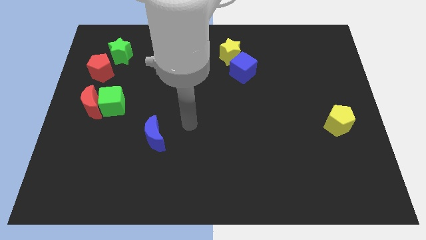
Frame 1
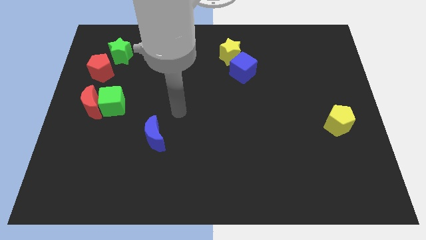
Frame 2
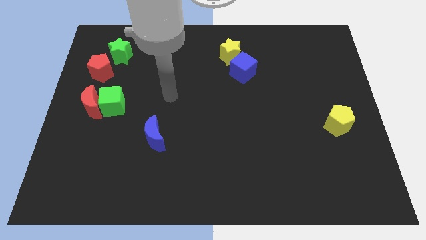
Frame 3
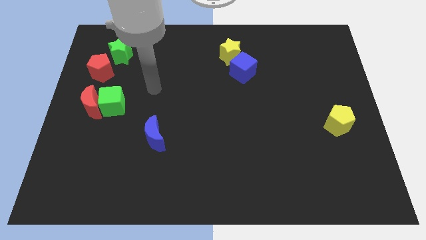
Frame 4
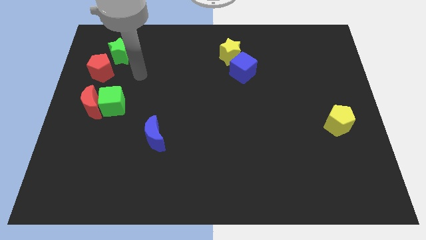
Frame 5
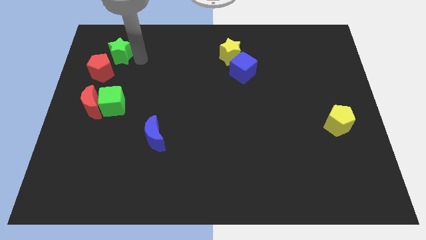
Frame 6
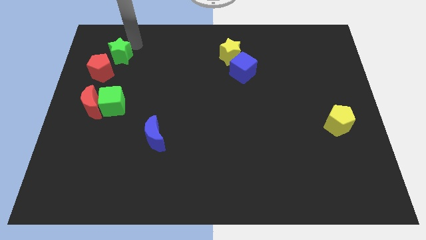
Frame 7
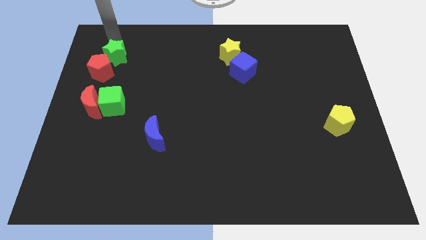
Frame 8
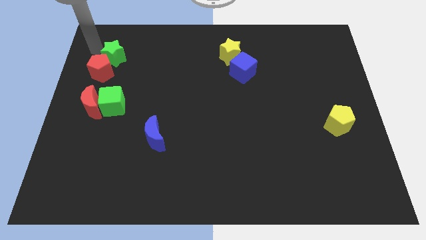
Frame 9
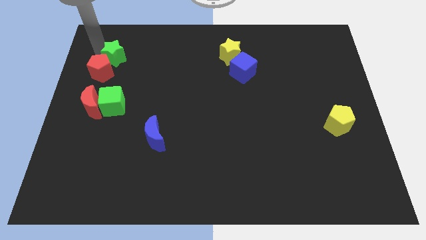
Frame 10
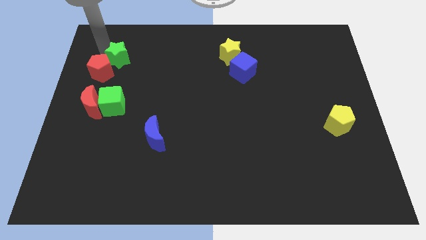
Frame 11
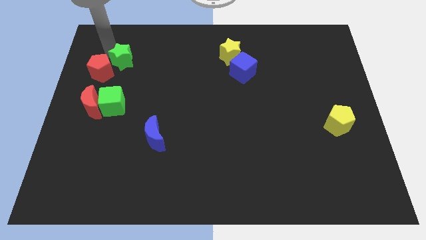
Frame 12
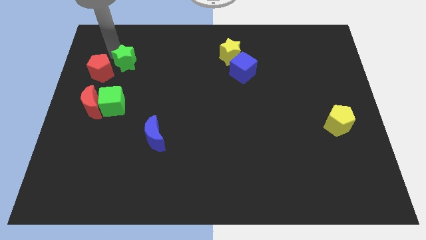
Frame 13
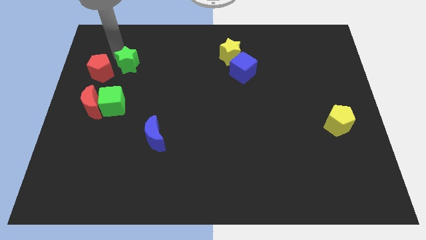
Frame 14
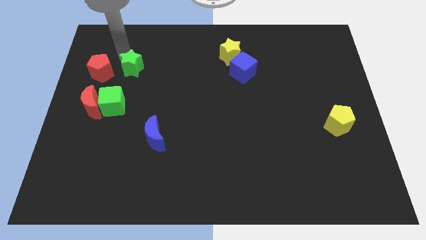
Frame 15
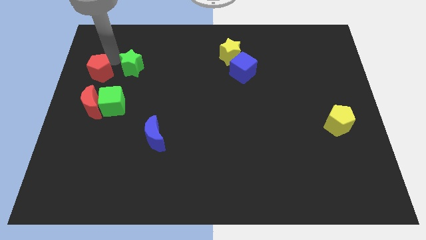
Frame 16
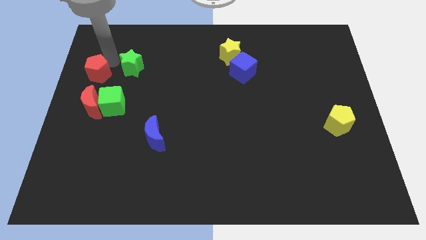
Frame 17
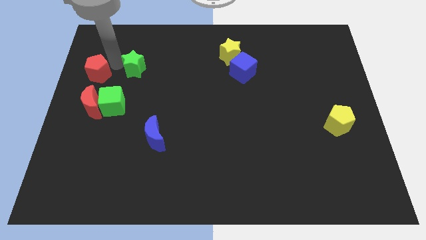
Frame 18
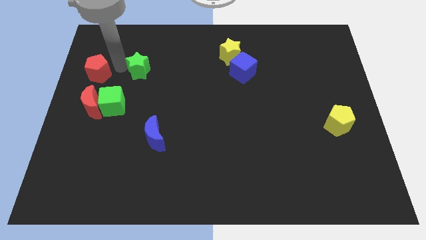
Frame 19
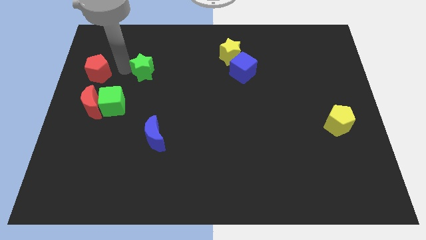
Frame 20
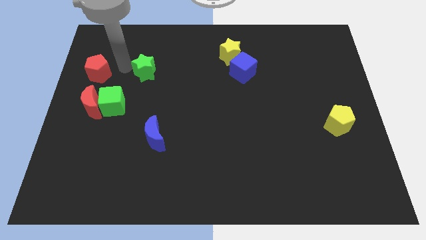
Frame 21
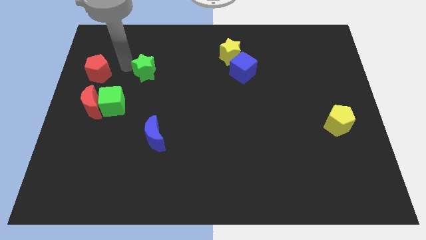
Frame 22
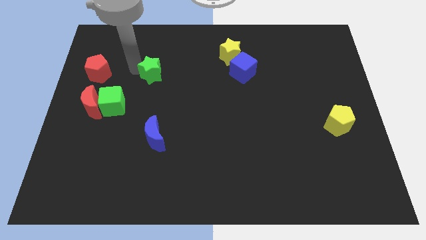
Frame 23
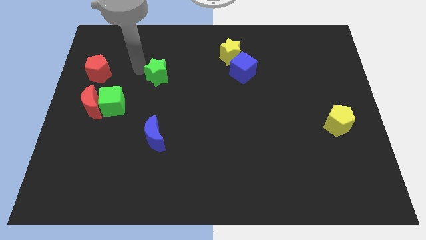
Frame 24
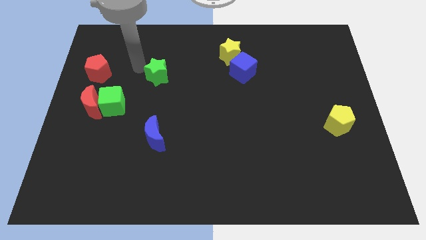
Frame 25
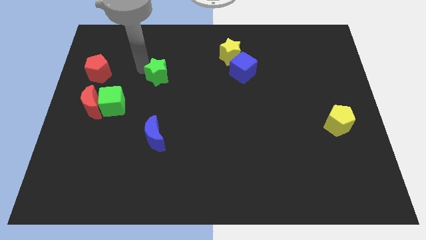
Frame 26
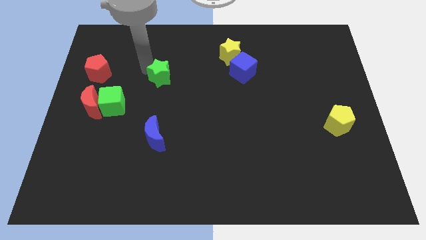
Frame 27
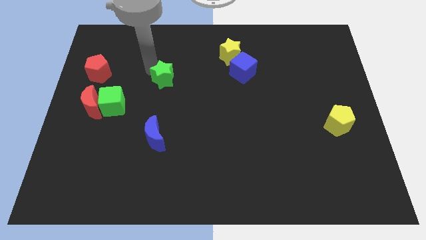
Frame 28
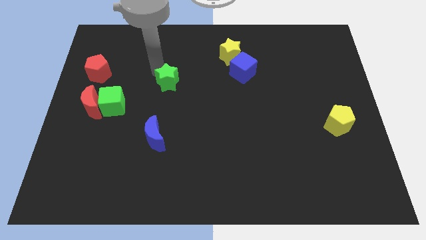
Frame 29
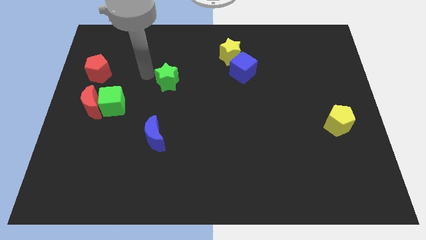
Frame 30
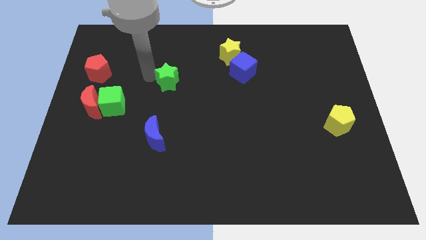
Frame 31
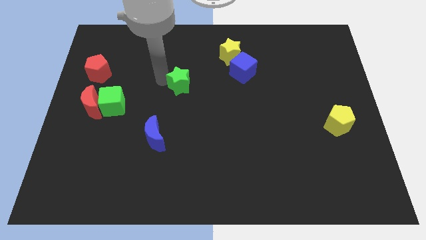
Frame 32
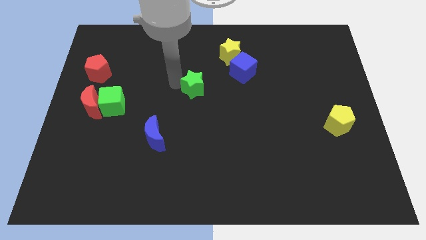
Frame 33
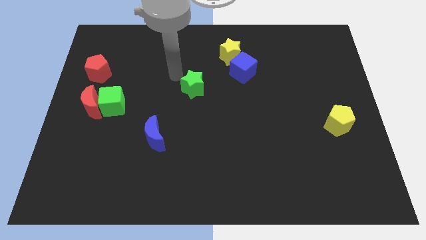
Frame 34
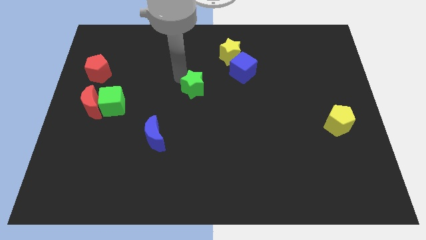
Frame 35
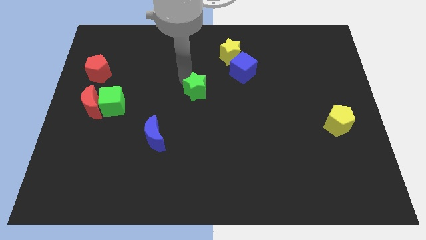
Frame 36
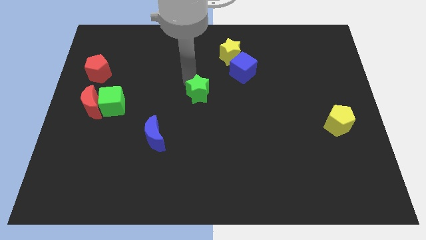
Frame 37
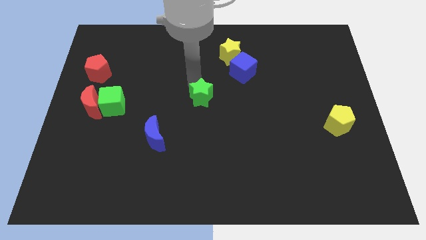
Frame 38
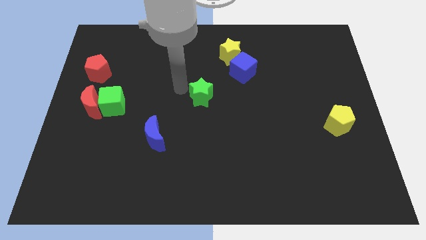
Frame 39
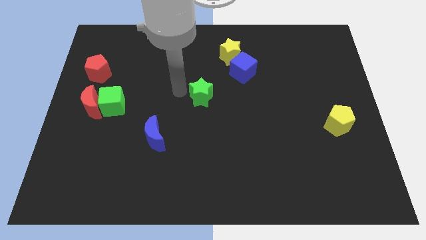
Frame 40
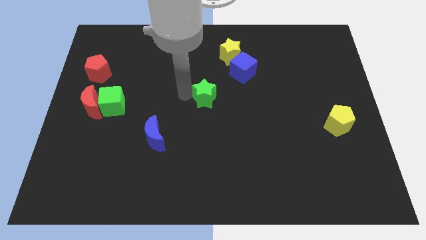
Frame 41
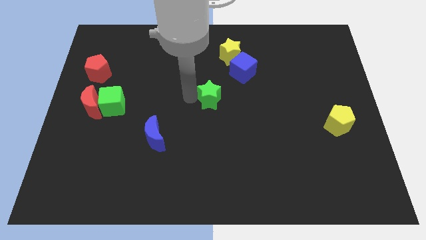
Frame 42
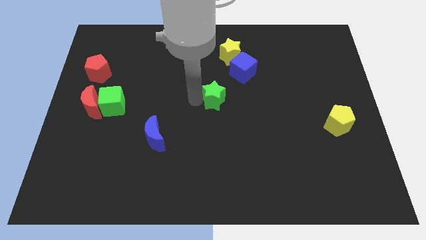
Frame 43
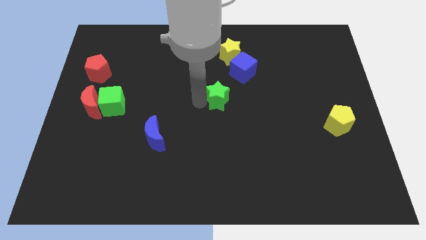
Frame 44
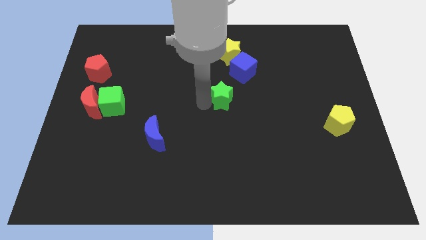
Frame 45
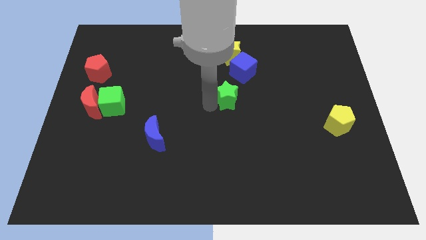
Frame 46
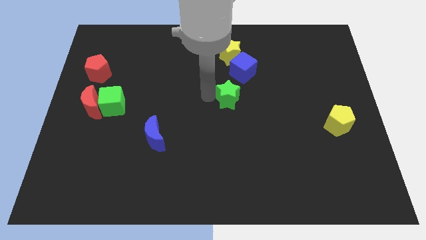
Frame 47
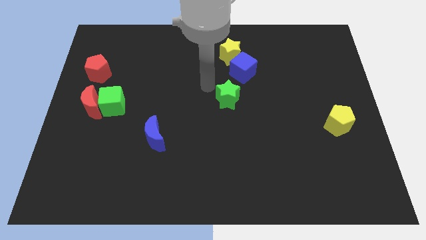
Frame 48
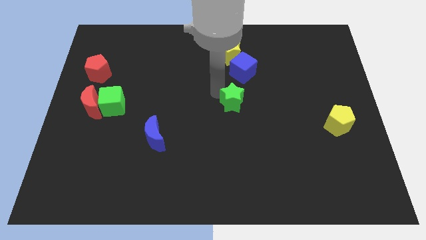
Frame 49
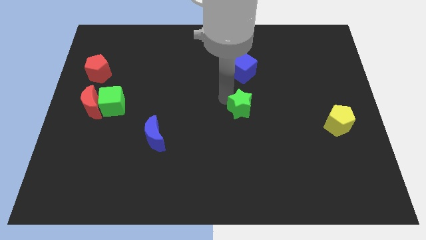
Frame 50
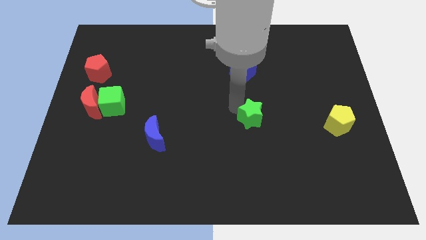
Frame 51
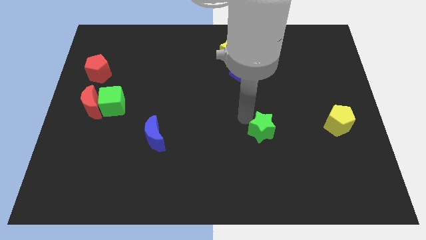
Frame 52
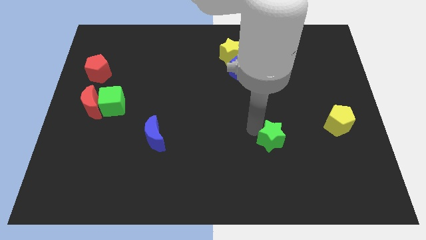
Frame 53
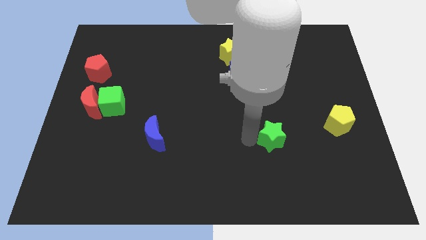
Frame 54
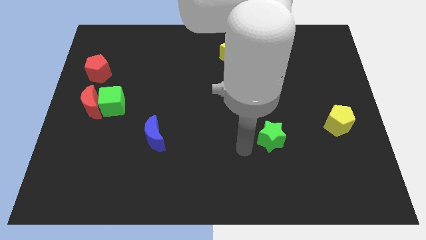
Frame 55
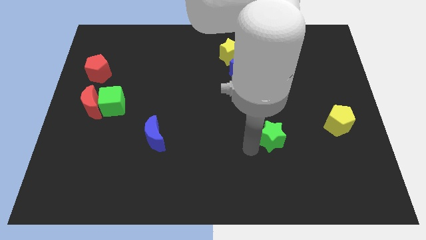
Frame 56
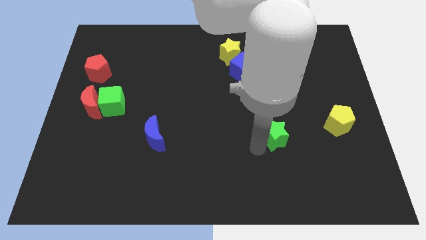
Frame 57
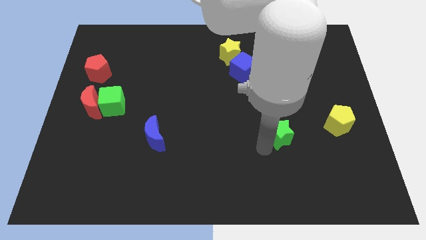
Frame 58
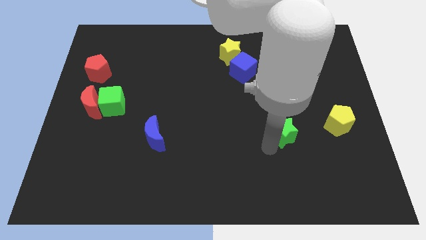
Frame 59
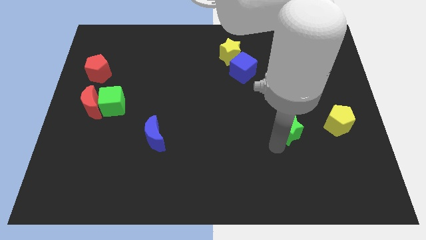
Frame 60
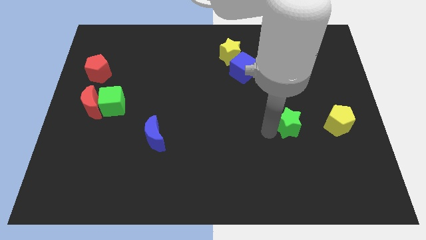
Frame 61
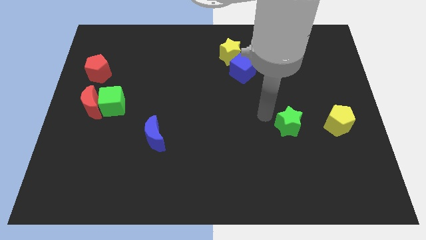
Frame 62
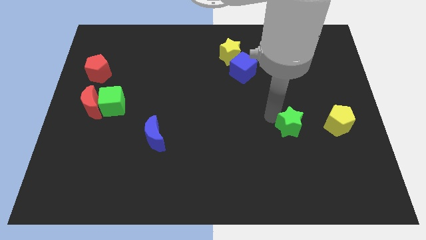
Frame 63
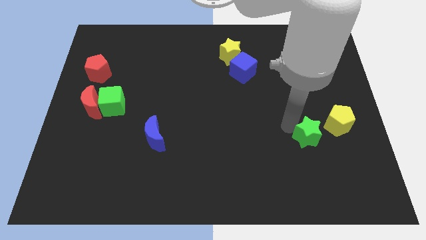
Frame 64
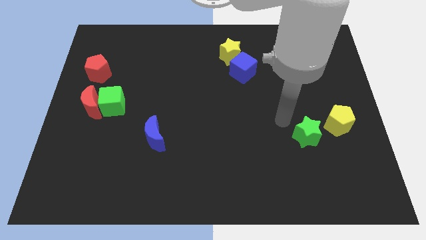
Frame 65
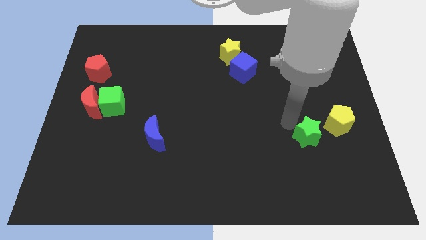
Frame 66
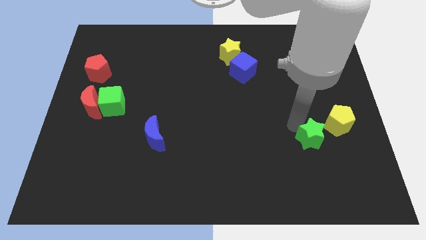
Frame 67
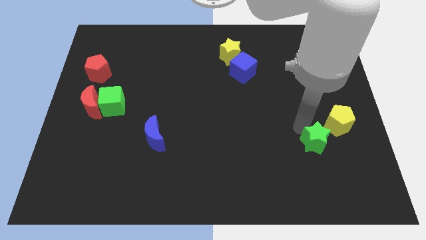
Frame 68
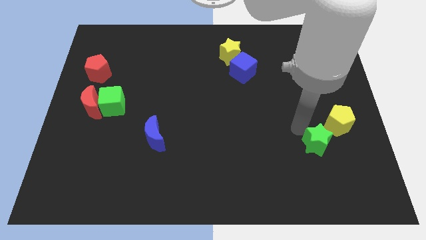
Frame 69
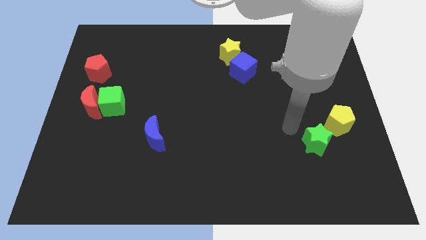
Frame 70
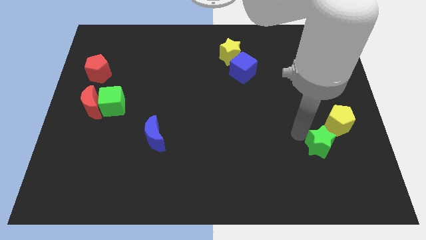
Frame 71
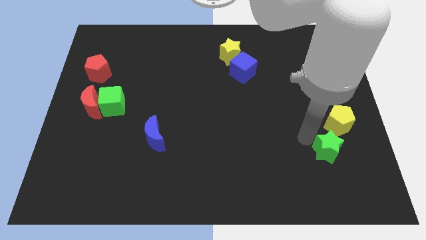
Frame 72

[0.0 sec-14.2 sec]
move the green star to the bottom of the yellow pentagon

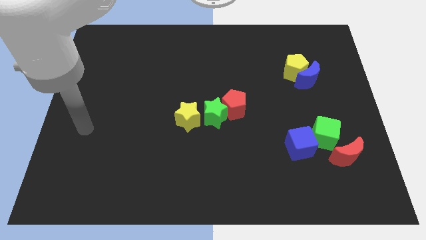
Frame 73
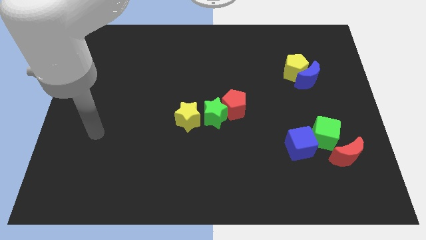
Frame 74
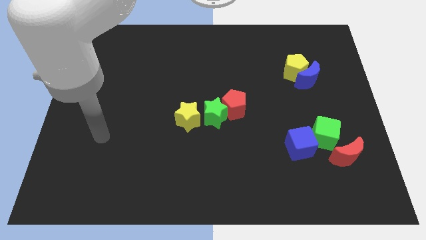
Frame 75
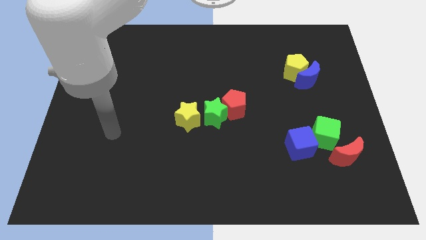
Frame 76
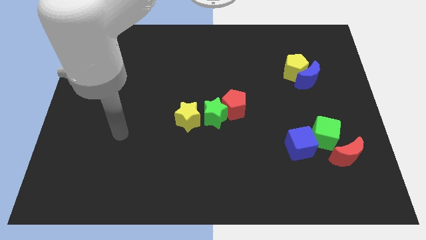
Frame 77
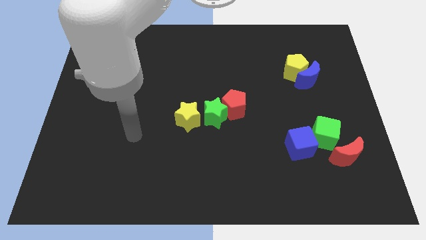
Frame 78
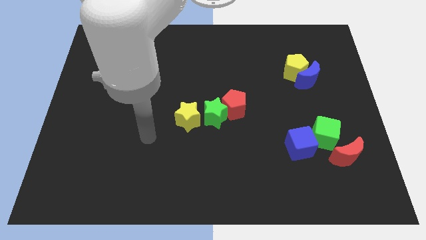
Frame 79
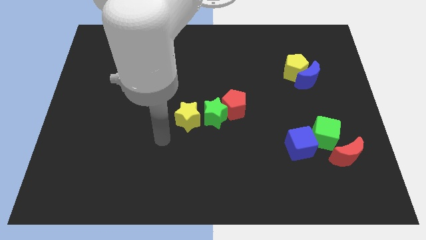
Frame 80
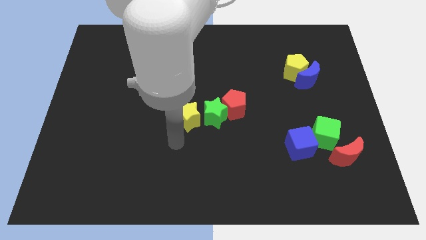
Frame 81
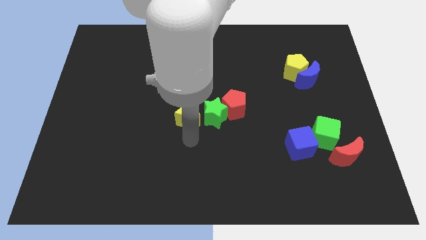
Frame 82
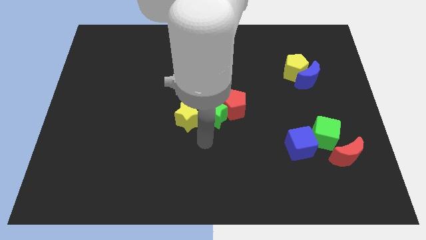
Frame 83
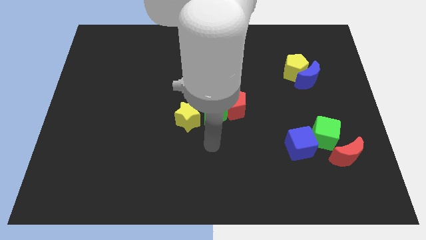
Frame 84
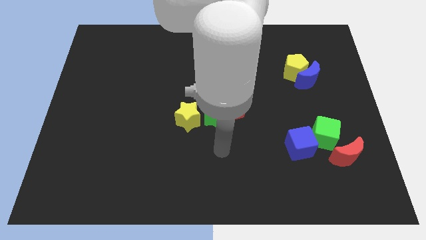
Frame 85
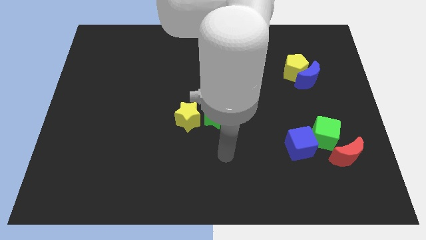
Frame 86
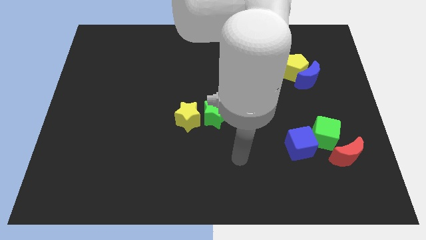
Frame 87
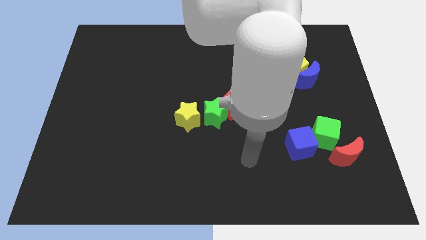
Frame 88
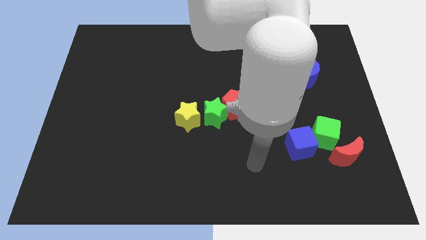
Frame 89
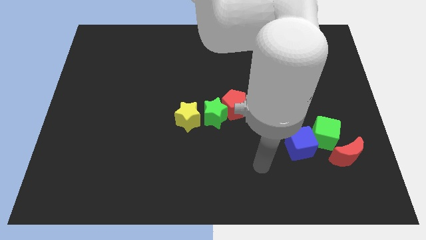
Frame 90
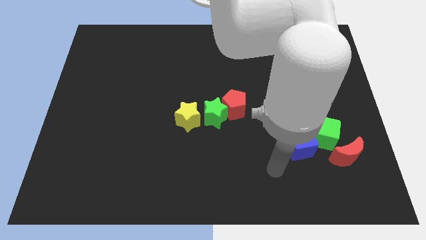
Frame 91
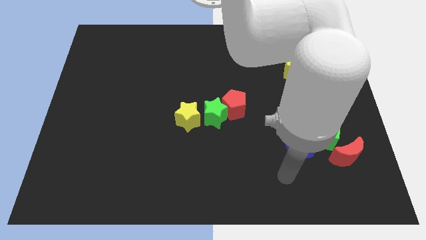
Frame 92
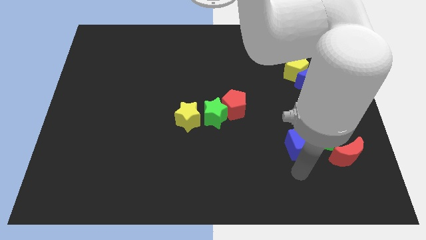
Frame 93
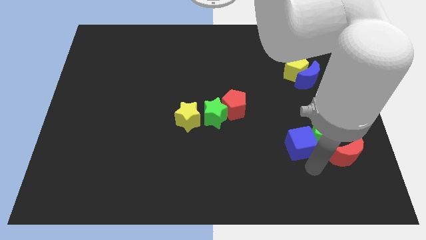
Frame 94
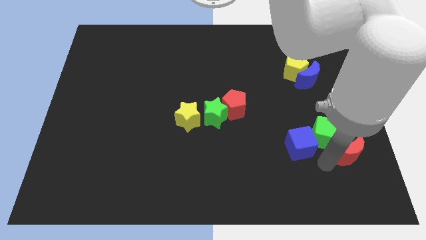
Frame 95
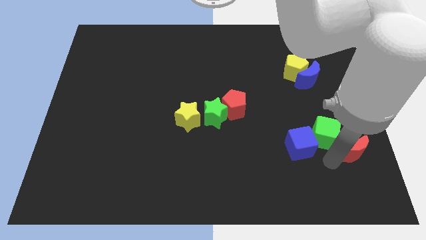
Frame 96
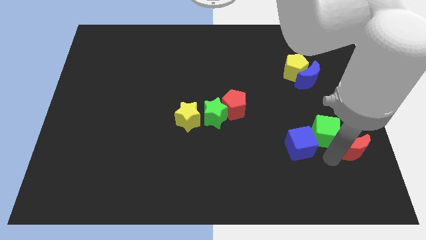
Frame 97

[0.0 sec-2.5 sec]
push the green cube to the bottom of the blue moon
